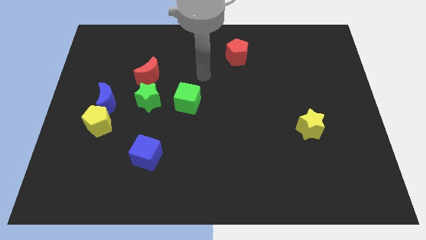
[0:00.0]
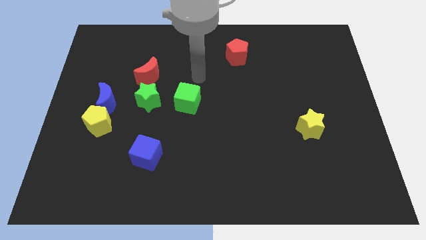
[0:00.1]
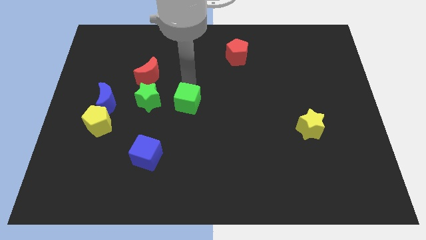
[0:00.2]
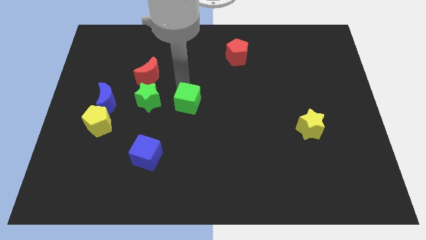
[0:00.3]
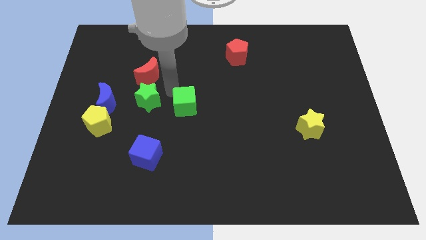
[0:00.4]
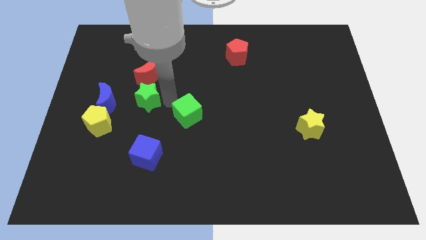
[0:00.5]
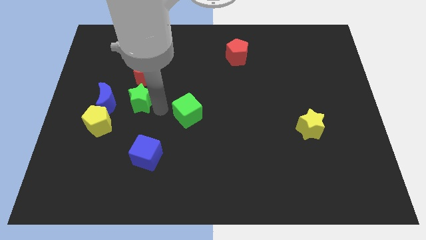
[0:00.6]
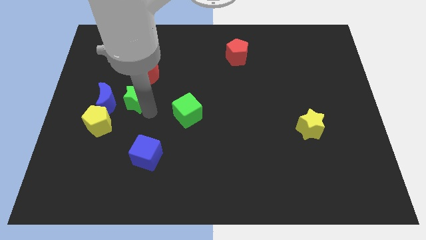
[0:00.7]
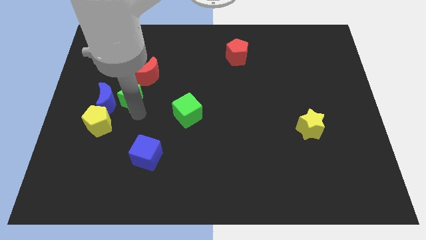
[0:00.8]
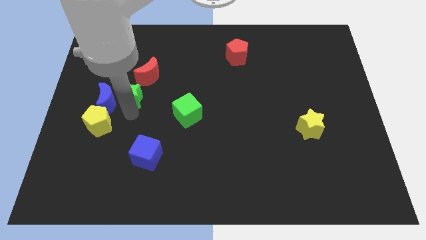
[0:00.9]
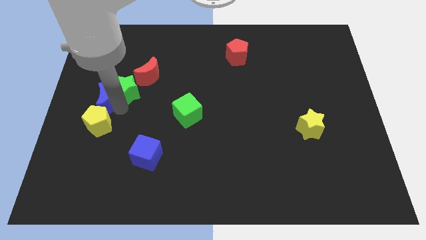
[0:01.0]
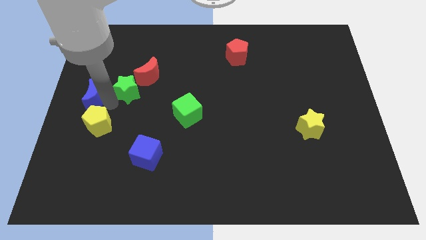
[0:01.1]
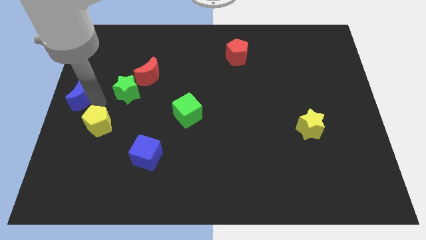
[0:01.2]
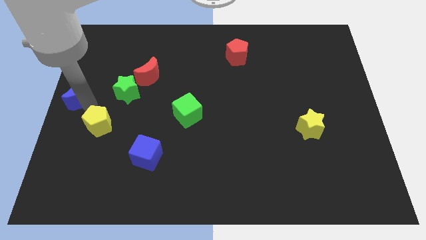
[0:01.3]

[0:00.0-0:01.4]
separate the yellow pentagon from the blue moon

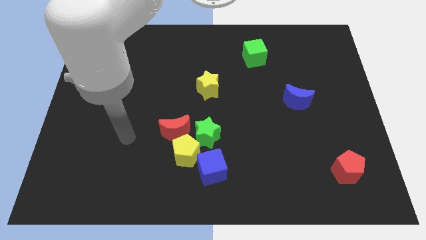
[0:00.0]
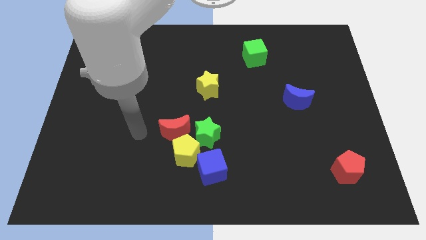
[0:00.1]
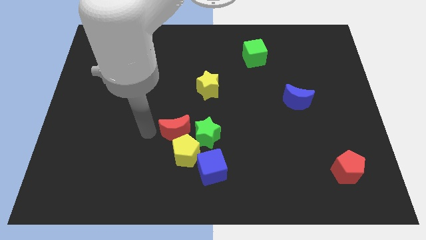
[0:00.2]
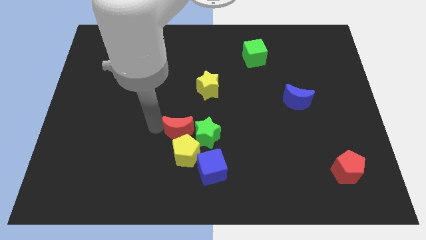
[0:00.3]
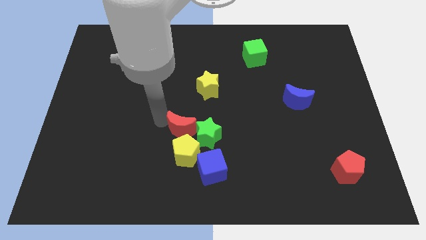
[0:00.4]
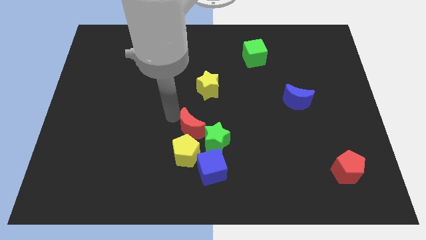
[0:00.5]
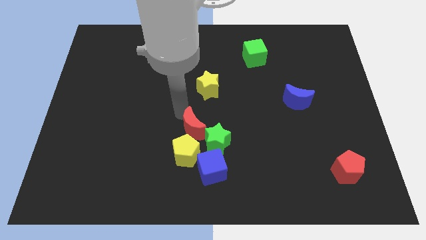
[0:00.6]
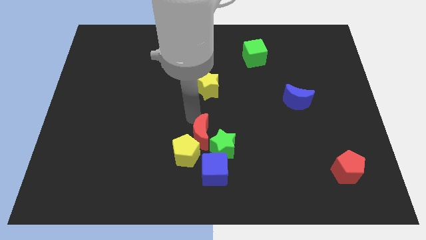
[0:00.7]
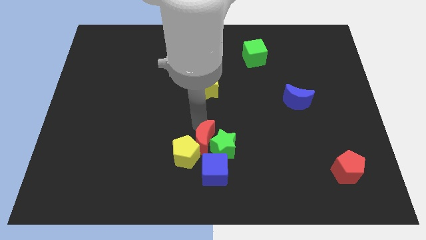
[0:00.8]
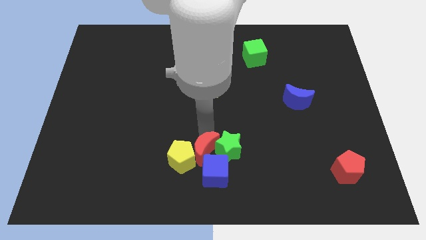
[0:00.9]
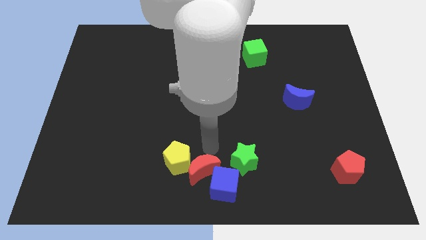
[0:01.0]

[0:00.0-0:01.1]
move the yellow pentagon away from the group

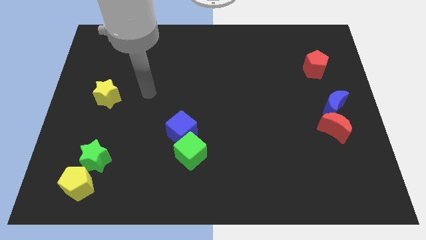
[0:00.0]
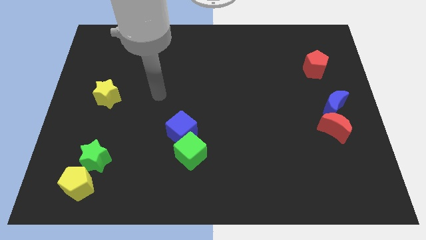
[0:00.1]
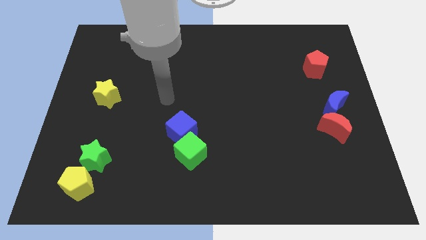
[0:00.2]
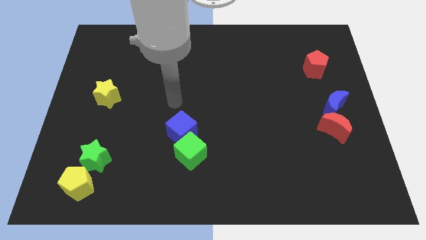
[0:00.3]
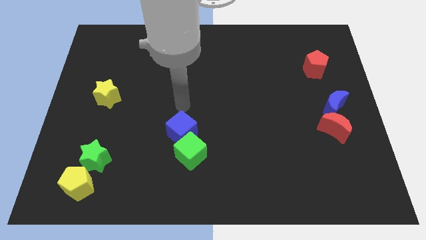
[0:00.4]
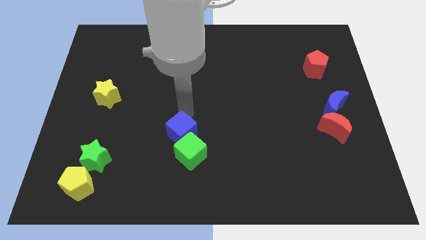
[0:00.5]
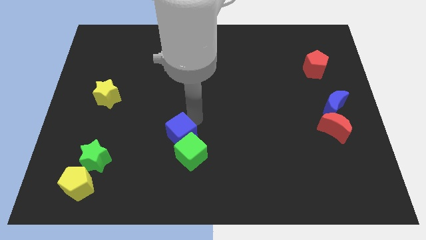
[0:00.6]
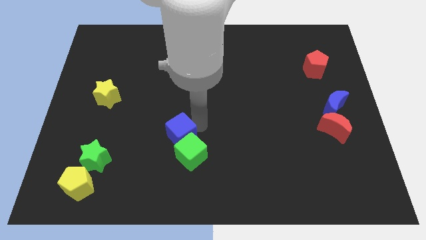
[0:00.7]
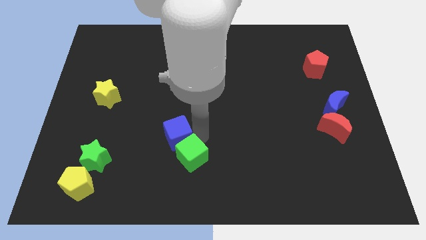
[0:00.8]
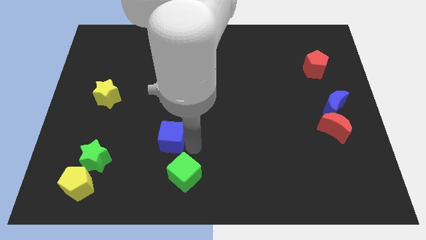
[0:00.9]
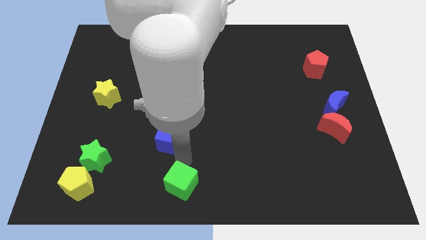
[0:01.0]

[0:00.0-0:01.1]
pull the blue cube apart from the green cube

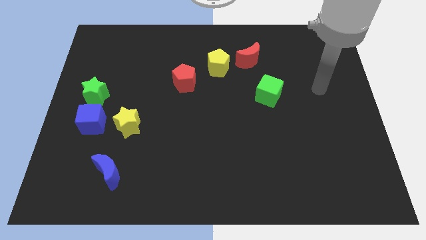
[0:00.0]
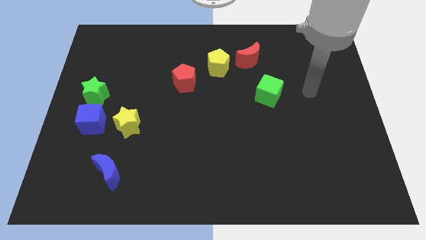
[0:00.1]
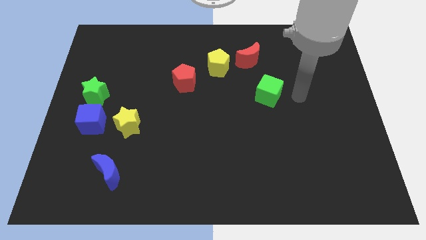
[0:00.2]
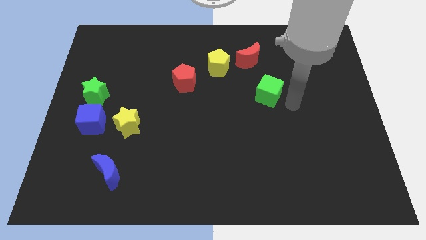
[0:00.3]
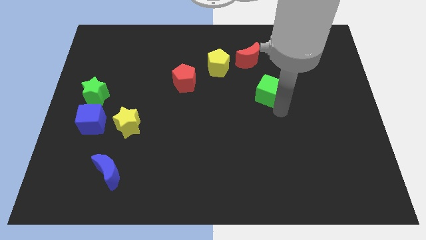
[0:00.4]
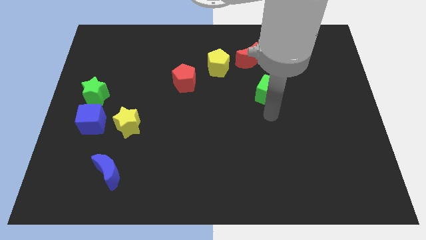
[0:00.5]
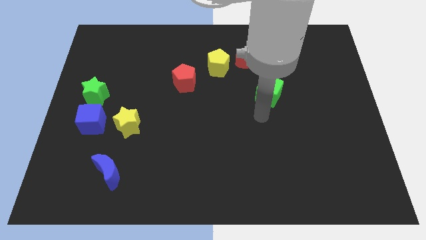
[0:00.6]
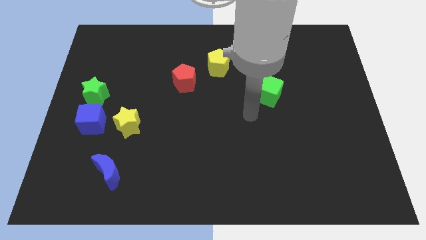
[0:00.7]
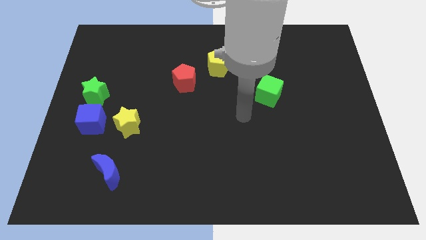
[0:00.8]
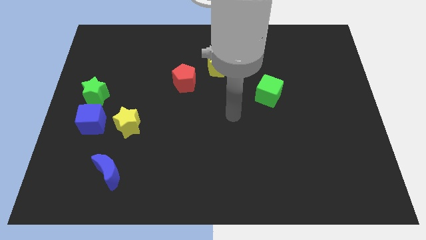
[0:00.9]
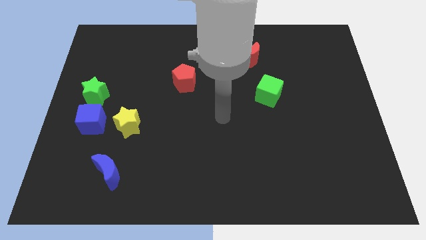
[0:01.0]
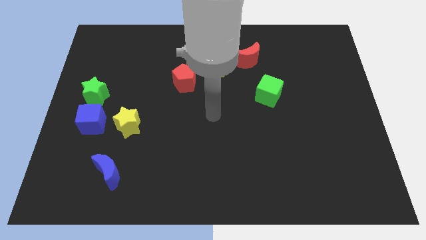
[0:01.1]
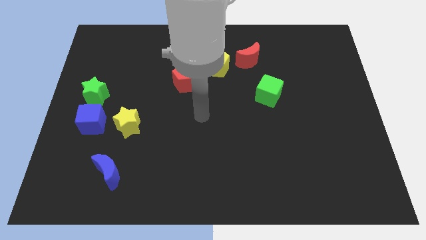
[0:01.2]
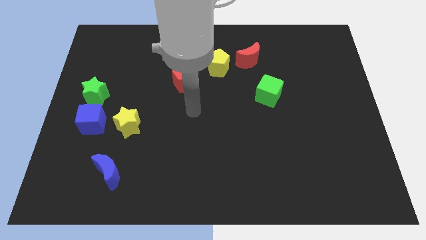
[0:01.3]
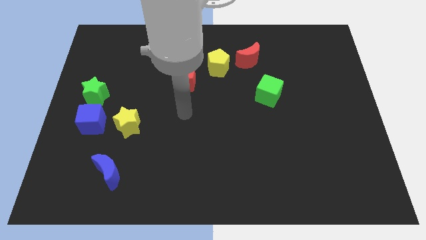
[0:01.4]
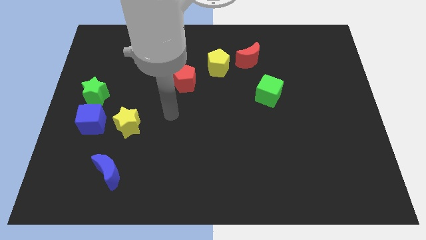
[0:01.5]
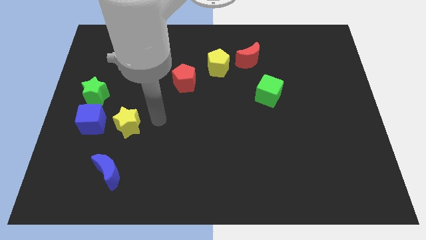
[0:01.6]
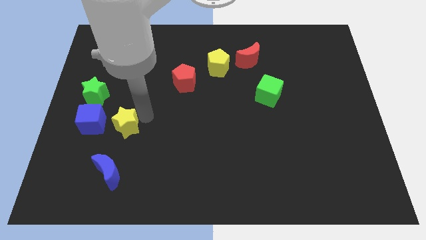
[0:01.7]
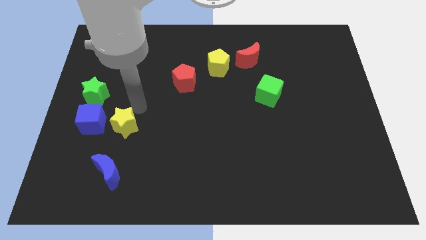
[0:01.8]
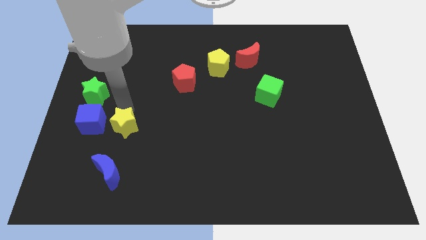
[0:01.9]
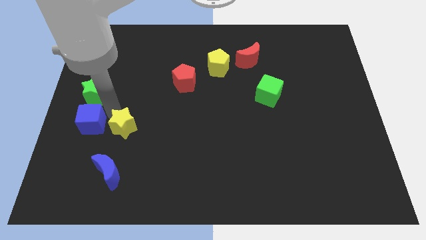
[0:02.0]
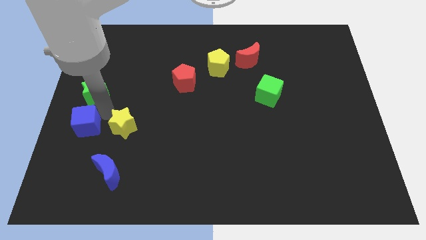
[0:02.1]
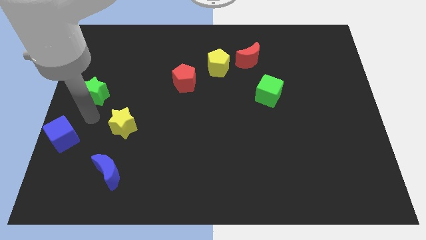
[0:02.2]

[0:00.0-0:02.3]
separate the green star from the blue cube

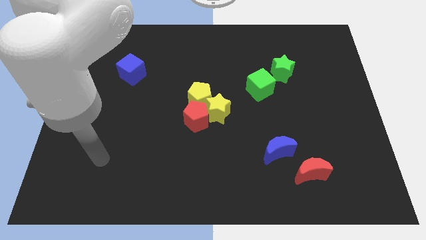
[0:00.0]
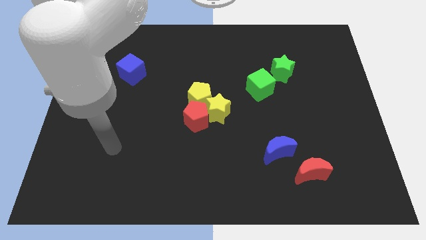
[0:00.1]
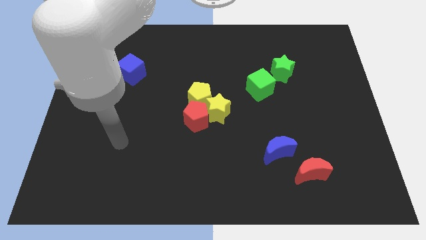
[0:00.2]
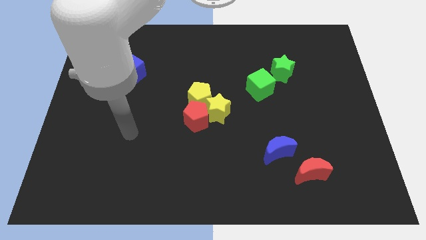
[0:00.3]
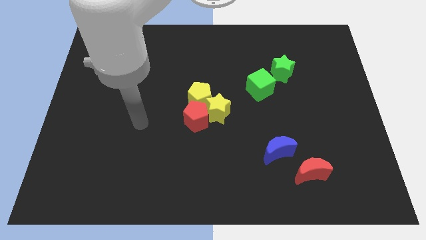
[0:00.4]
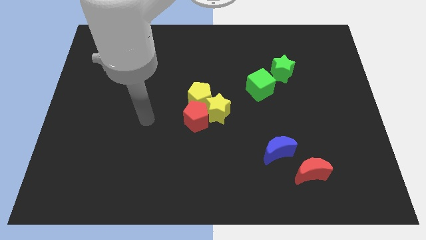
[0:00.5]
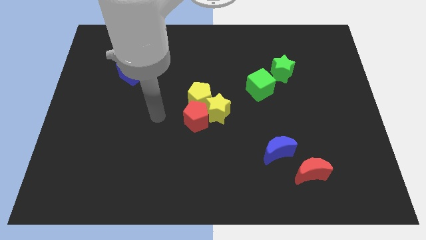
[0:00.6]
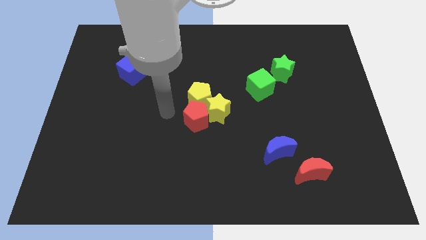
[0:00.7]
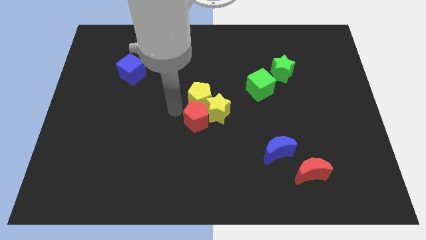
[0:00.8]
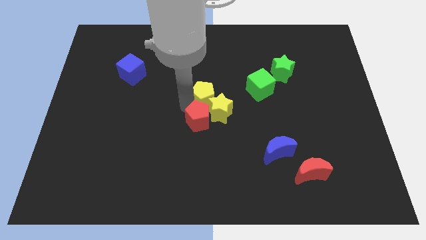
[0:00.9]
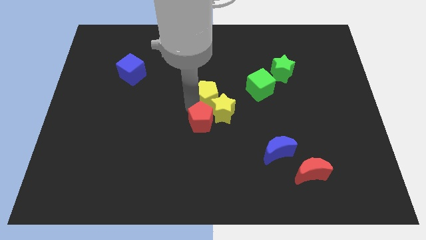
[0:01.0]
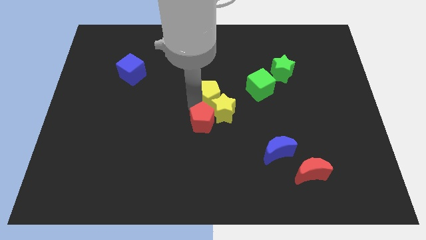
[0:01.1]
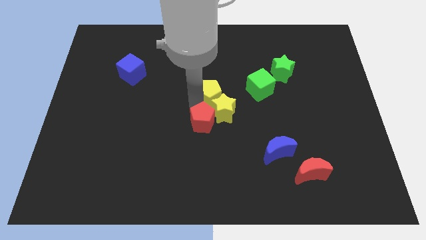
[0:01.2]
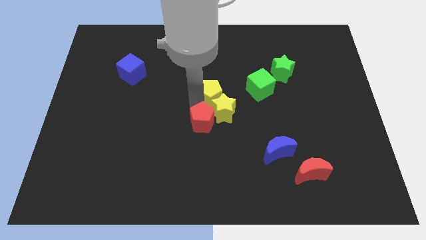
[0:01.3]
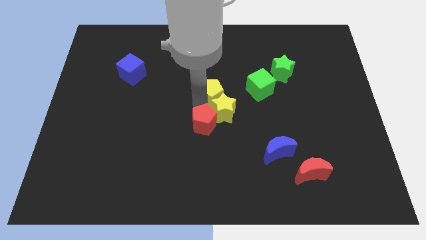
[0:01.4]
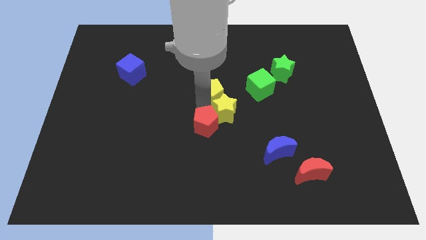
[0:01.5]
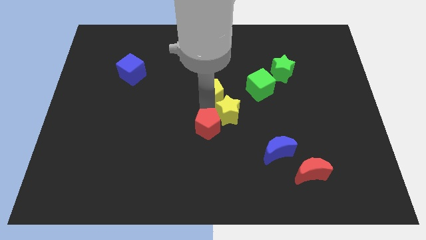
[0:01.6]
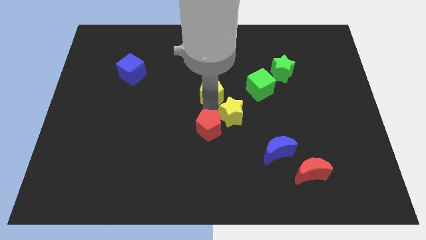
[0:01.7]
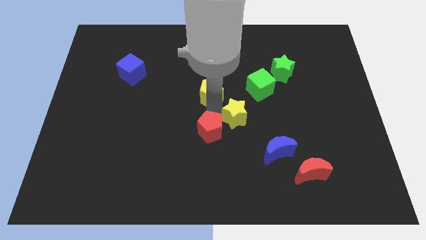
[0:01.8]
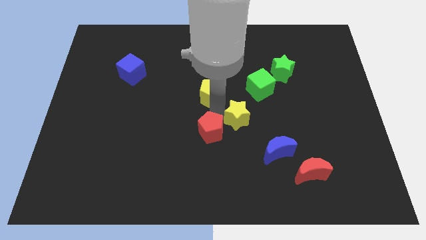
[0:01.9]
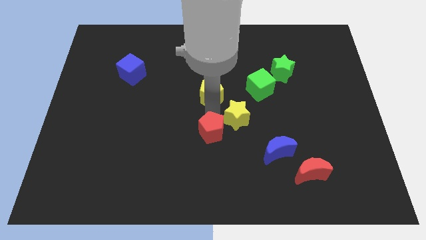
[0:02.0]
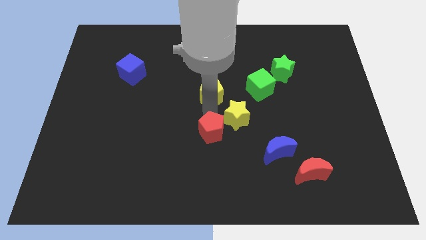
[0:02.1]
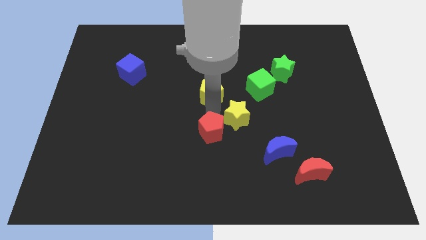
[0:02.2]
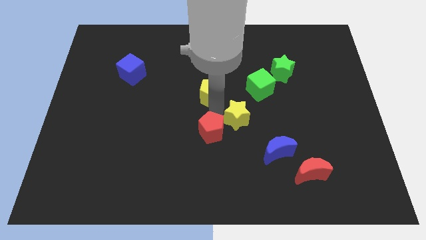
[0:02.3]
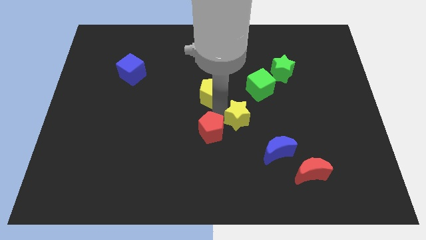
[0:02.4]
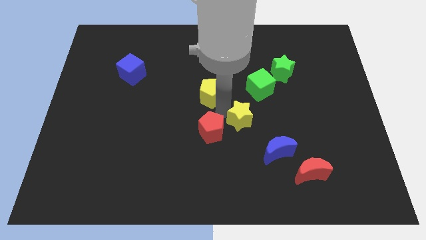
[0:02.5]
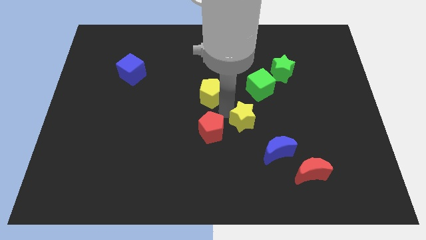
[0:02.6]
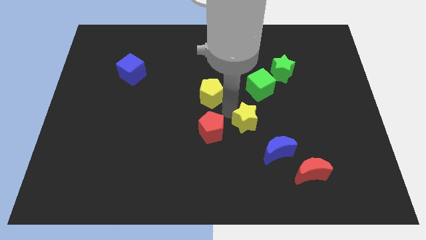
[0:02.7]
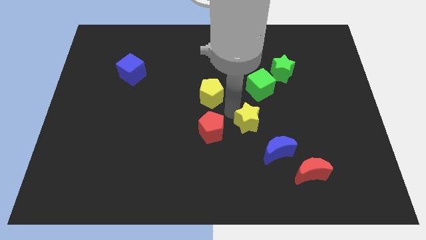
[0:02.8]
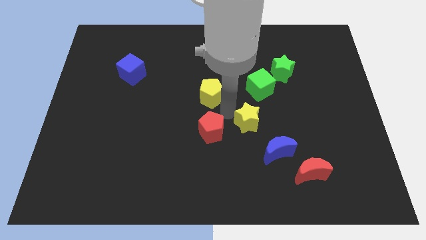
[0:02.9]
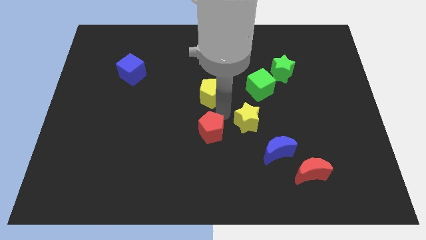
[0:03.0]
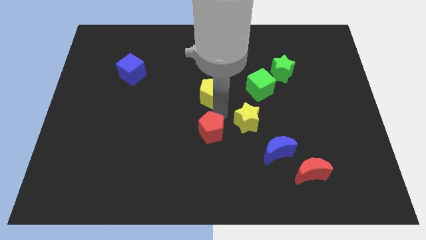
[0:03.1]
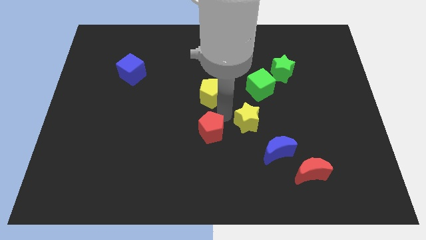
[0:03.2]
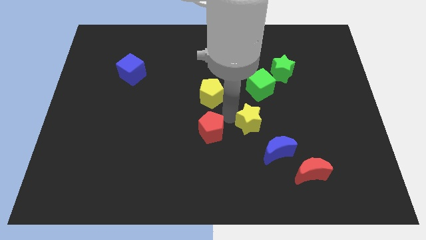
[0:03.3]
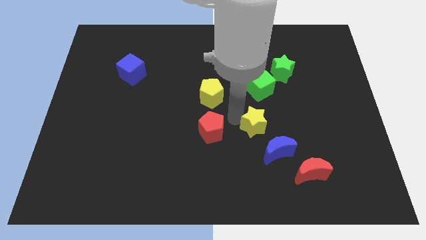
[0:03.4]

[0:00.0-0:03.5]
move the yellow star away from the red pentagon and yellow pentagon

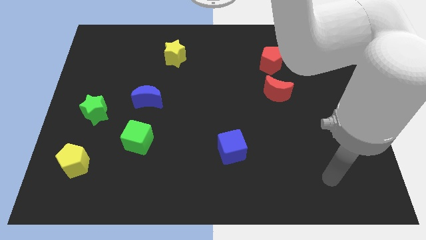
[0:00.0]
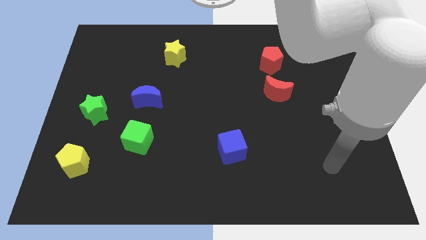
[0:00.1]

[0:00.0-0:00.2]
move the red moon away from the red pentagon
